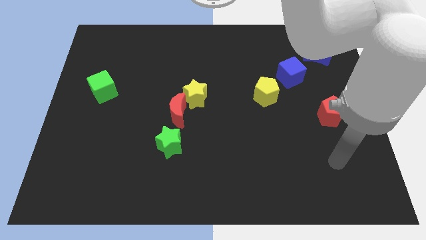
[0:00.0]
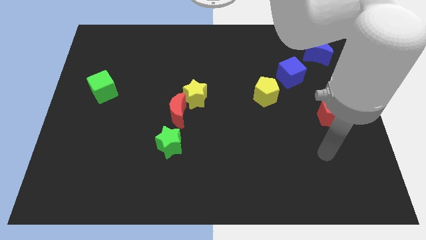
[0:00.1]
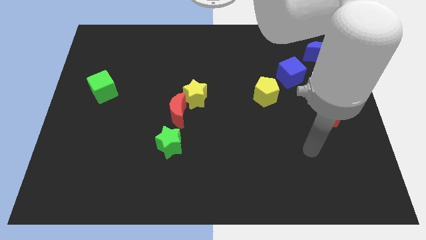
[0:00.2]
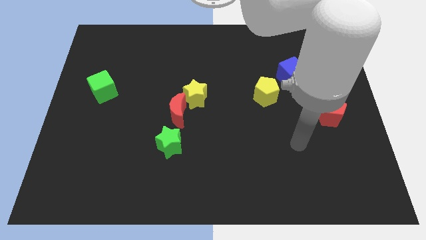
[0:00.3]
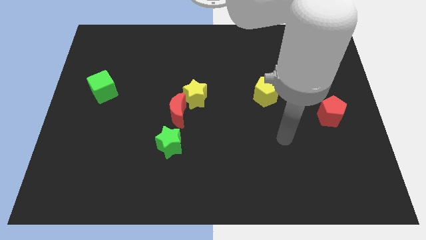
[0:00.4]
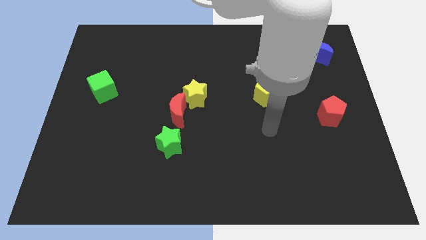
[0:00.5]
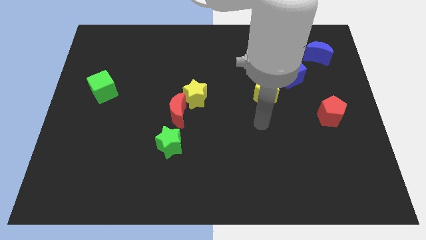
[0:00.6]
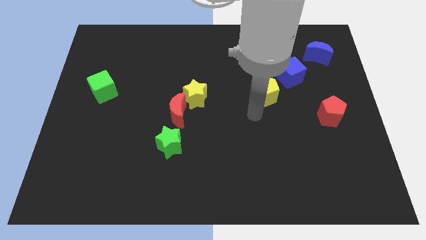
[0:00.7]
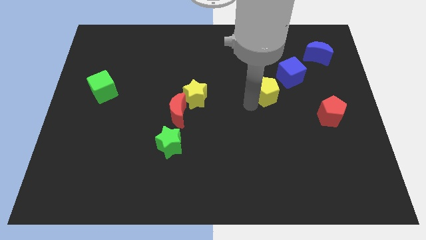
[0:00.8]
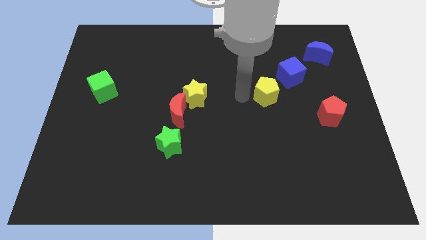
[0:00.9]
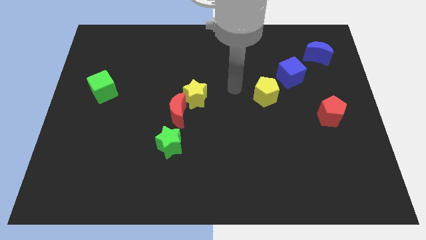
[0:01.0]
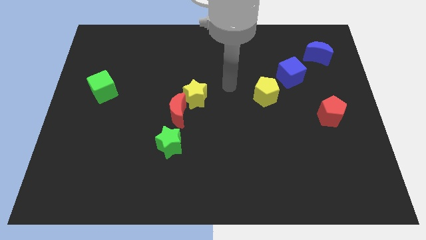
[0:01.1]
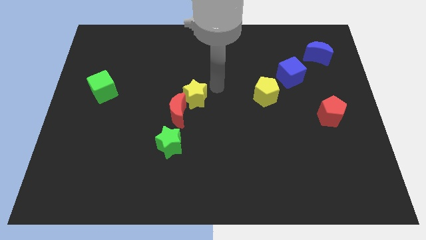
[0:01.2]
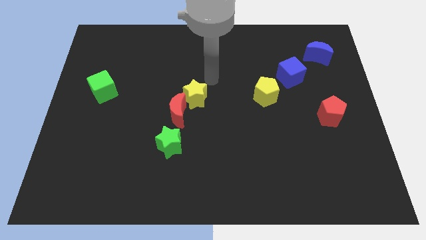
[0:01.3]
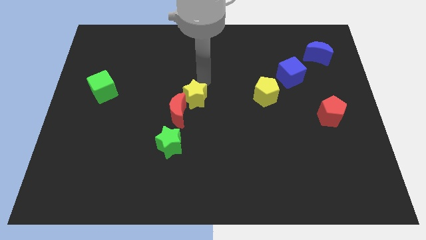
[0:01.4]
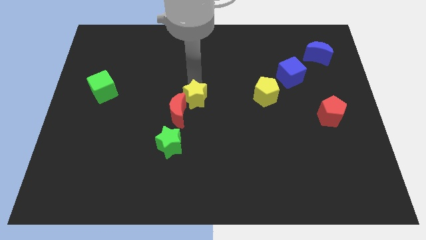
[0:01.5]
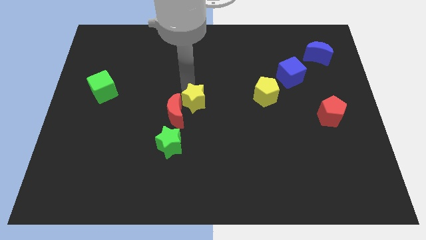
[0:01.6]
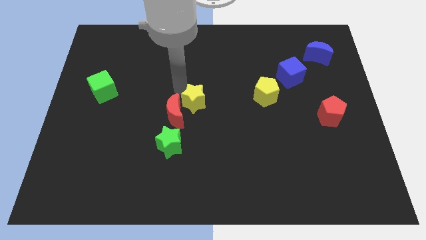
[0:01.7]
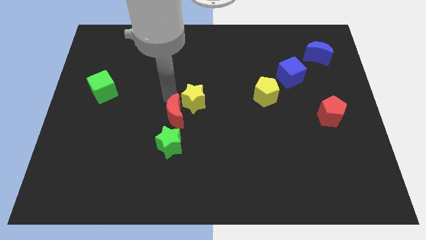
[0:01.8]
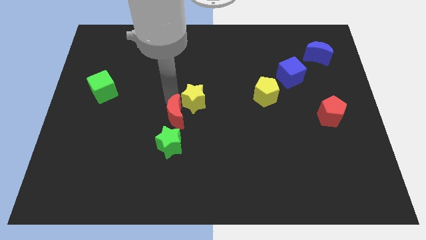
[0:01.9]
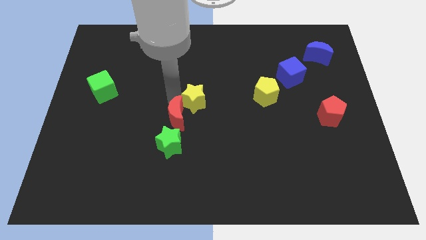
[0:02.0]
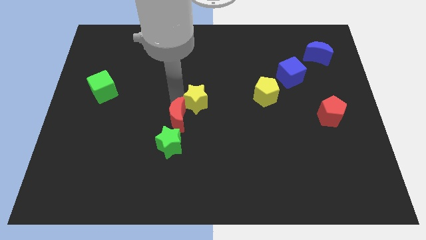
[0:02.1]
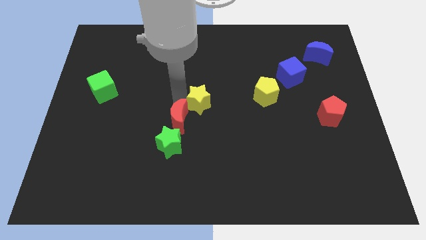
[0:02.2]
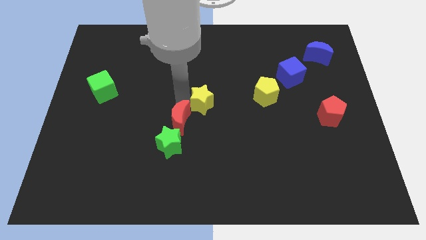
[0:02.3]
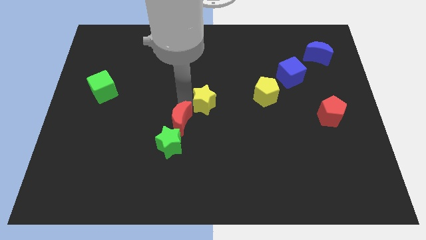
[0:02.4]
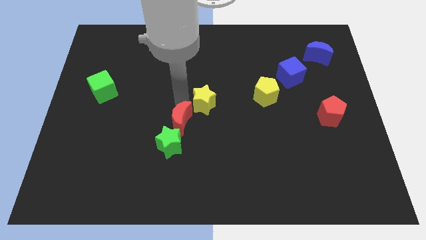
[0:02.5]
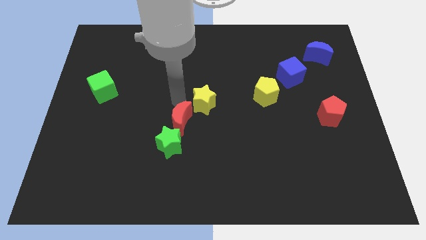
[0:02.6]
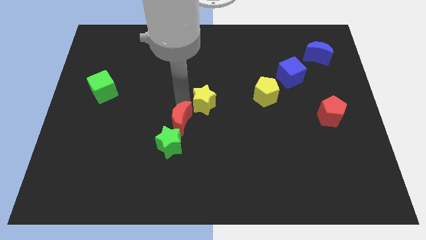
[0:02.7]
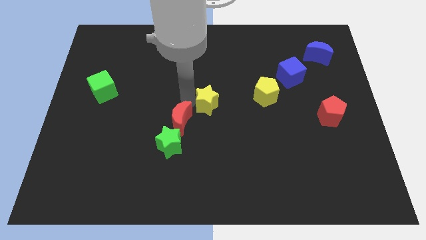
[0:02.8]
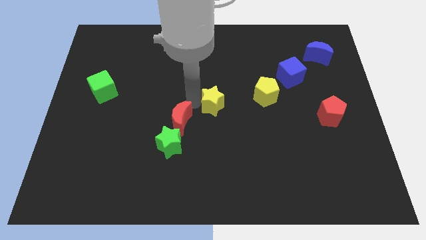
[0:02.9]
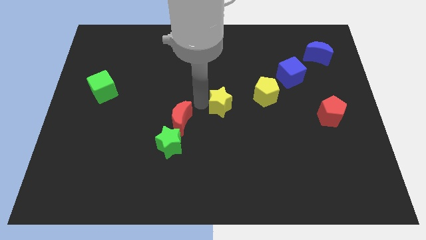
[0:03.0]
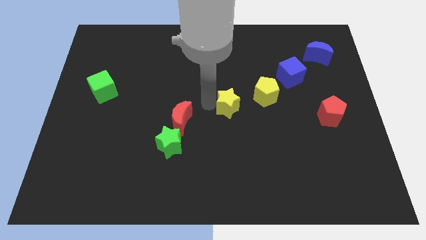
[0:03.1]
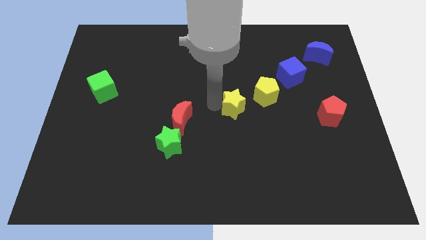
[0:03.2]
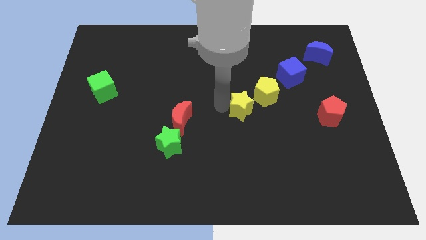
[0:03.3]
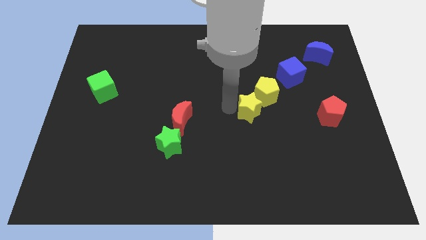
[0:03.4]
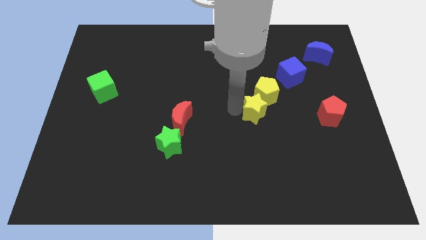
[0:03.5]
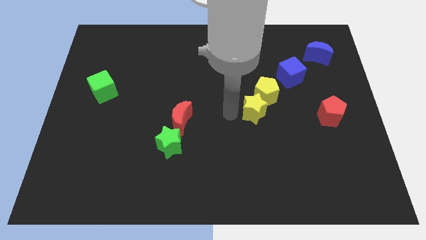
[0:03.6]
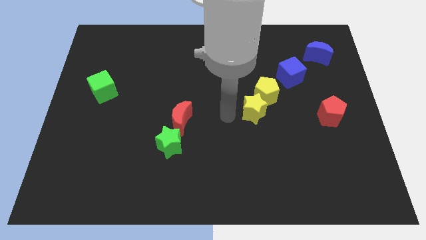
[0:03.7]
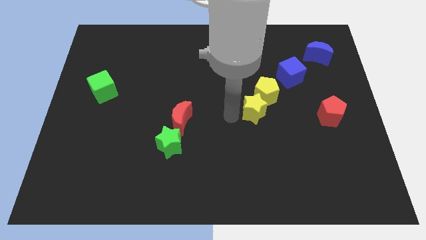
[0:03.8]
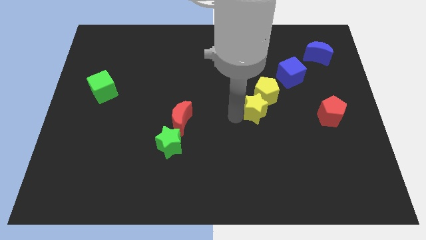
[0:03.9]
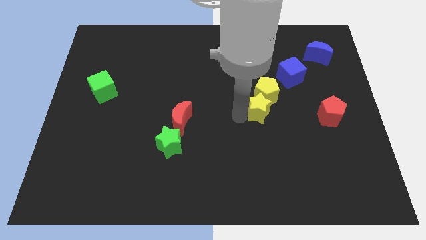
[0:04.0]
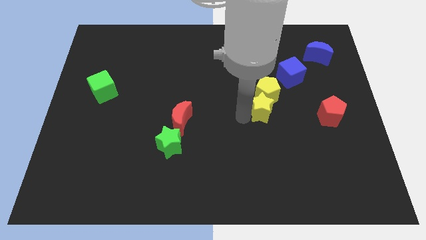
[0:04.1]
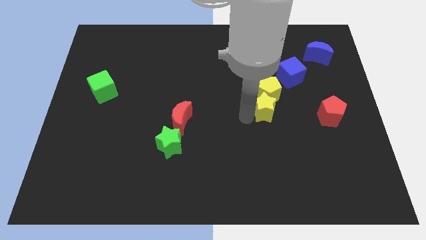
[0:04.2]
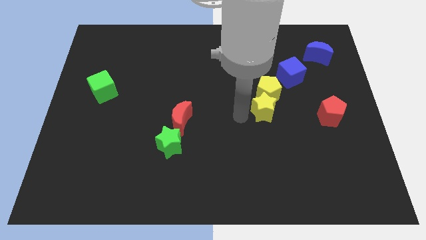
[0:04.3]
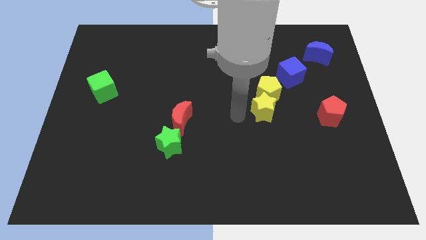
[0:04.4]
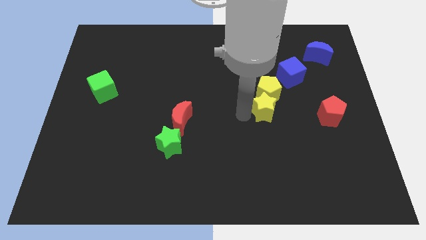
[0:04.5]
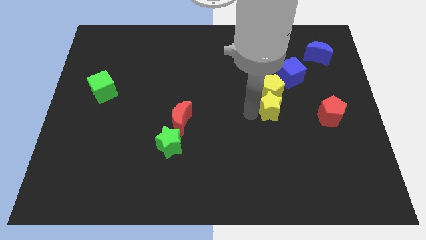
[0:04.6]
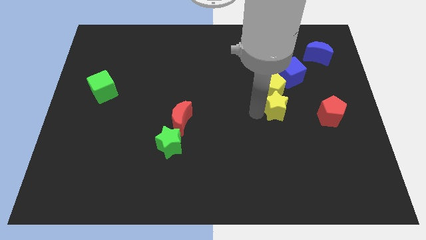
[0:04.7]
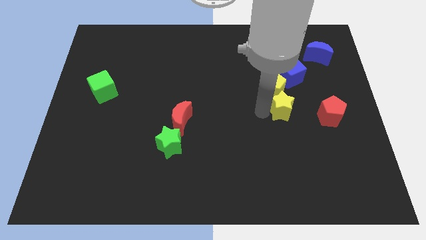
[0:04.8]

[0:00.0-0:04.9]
push the yellow star right

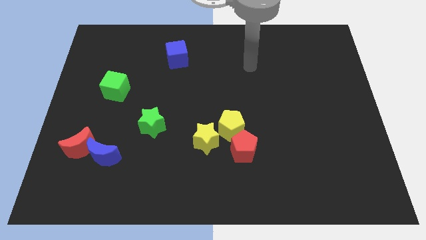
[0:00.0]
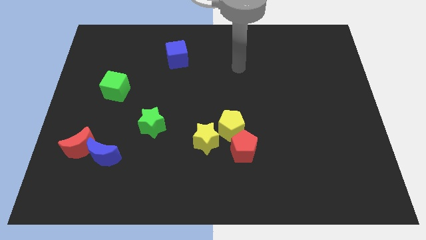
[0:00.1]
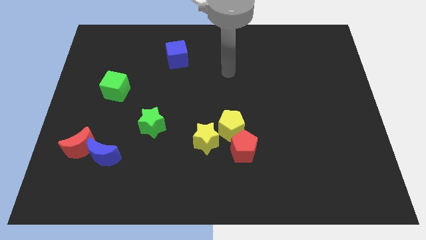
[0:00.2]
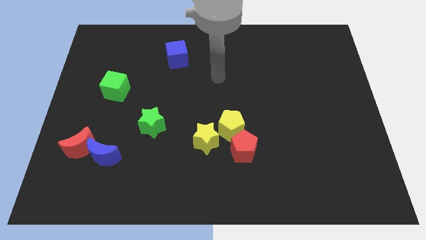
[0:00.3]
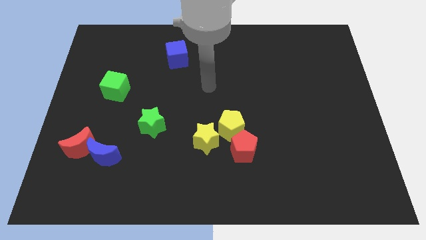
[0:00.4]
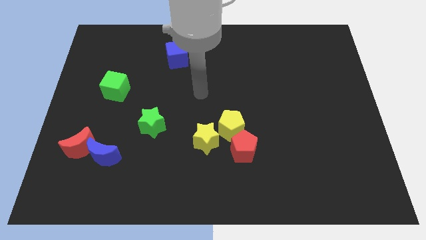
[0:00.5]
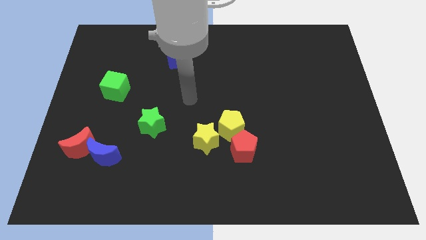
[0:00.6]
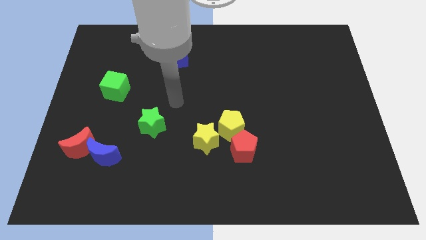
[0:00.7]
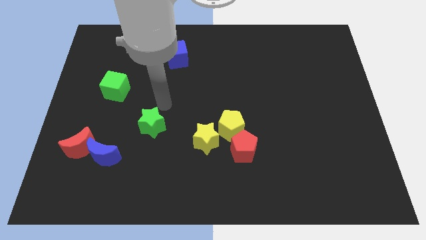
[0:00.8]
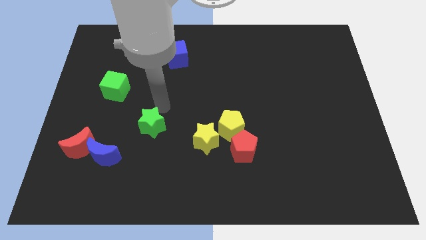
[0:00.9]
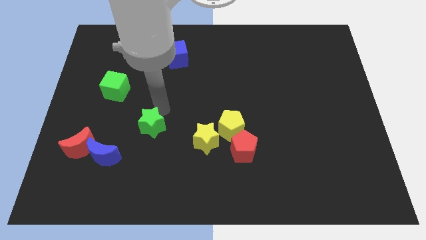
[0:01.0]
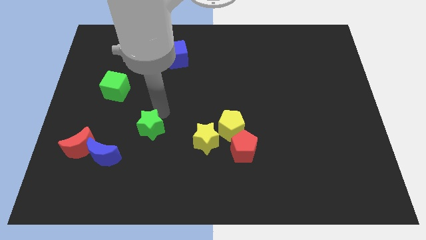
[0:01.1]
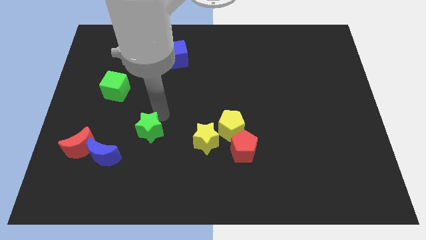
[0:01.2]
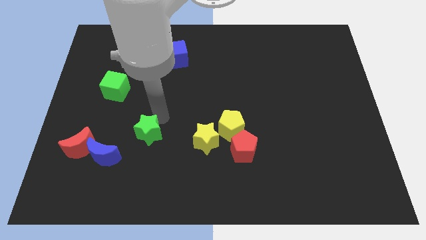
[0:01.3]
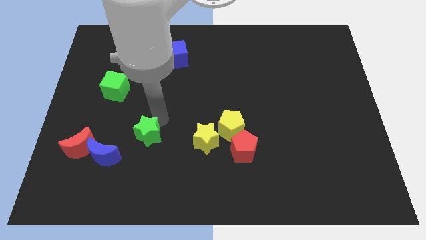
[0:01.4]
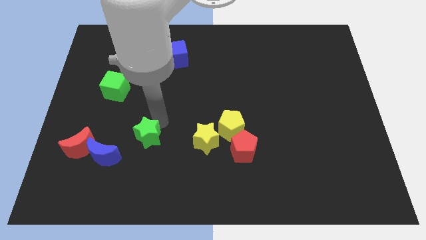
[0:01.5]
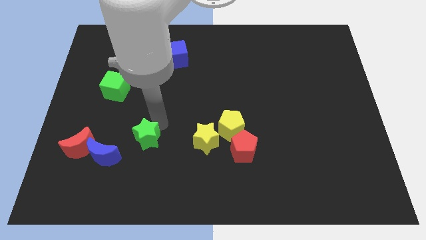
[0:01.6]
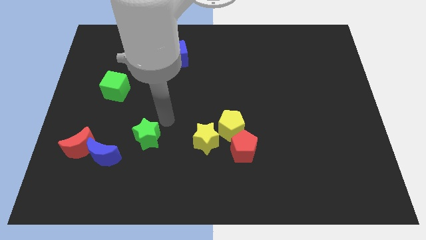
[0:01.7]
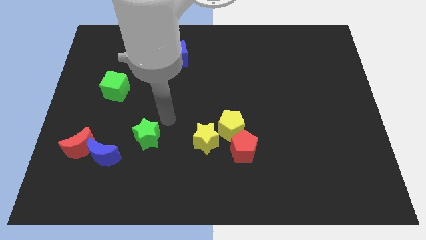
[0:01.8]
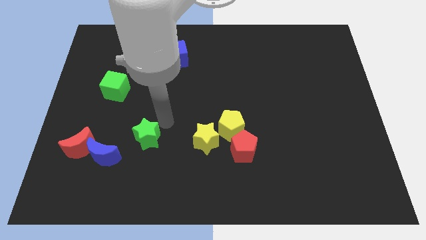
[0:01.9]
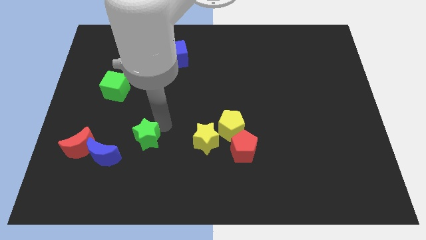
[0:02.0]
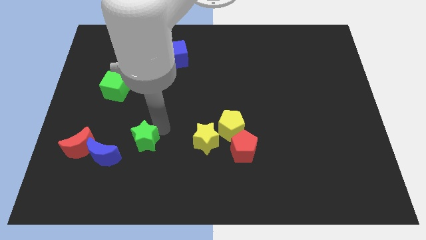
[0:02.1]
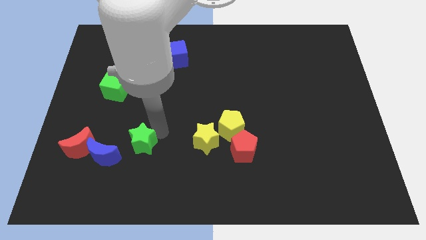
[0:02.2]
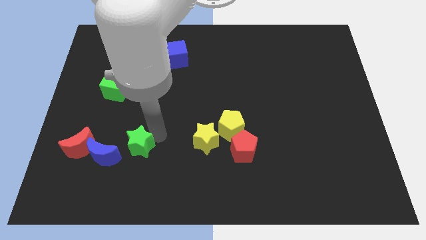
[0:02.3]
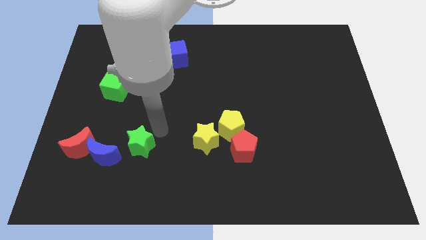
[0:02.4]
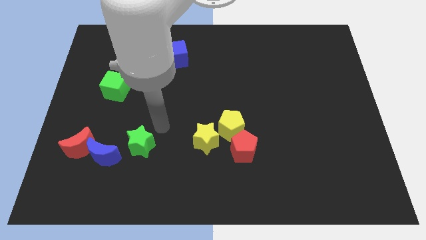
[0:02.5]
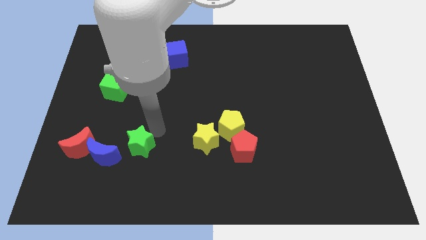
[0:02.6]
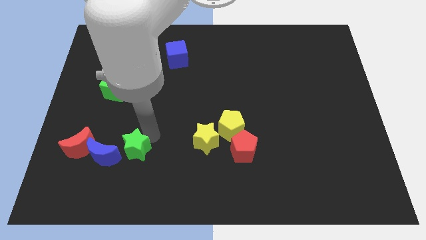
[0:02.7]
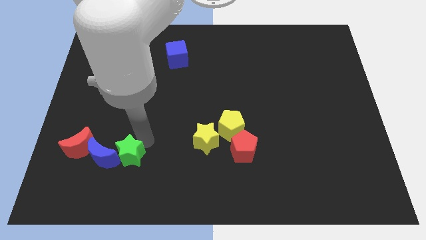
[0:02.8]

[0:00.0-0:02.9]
slide the green star downwards and to the left a little

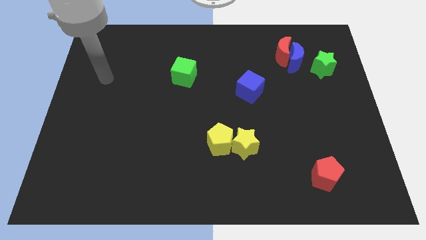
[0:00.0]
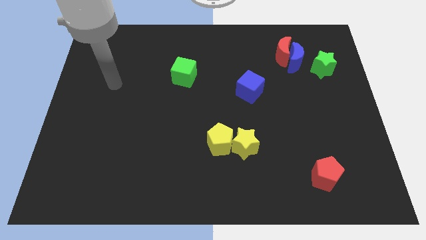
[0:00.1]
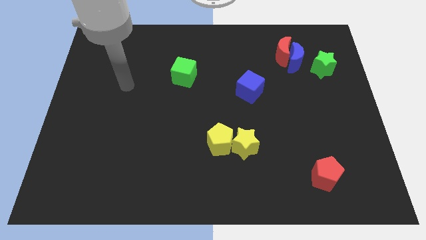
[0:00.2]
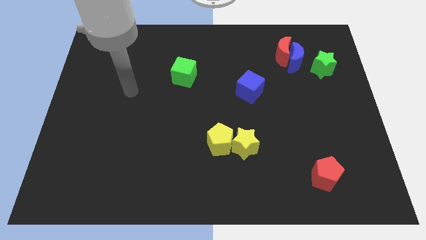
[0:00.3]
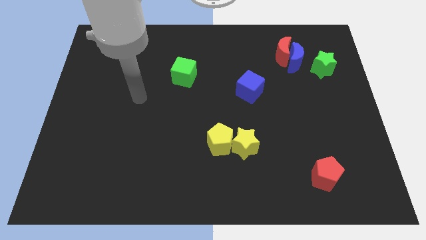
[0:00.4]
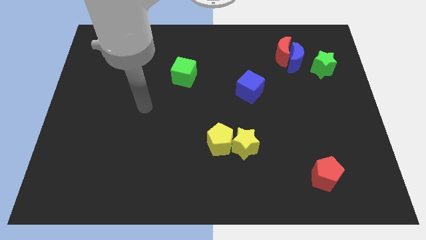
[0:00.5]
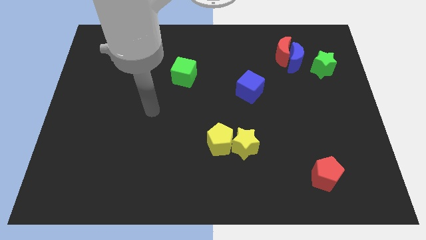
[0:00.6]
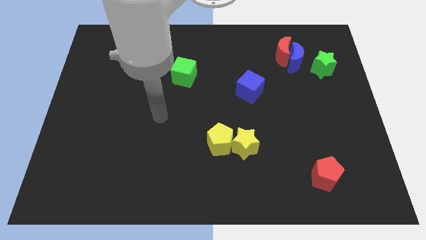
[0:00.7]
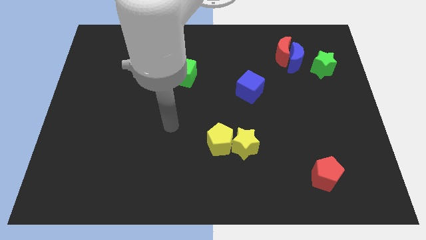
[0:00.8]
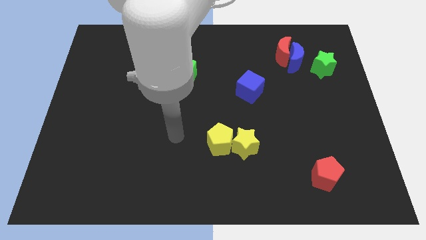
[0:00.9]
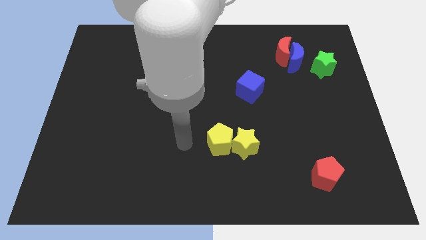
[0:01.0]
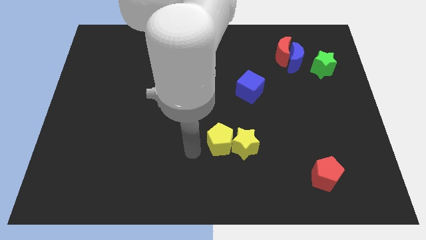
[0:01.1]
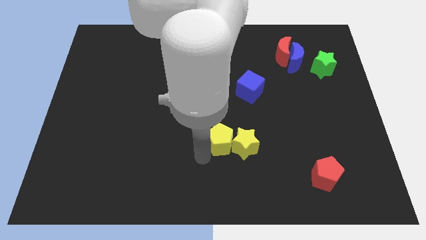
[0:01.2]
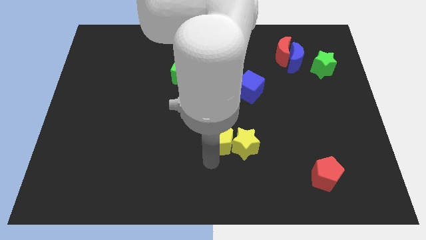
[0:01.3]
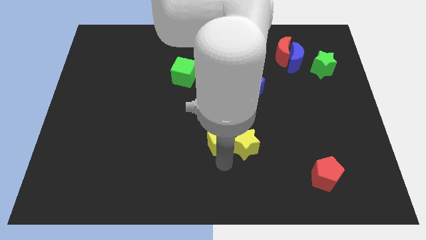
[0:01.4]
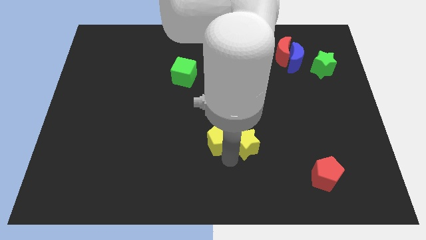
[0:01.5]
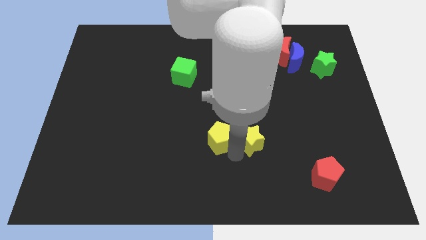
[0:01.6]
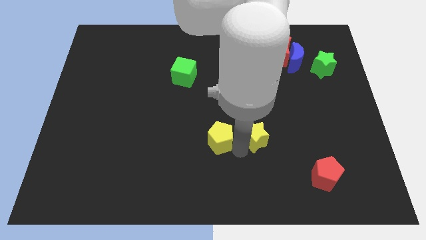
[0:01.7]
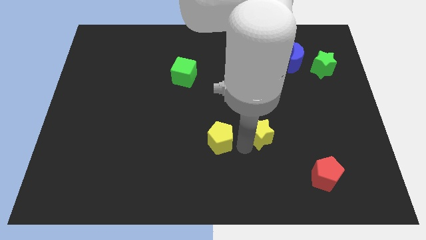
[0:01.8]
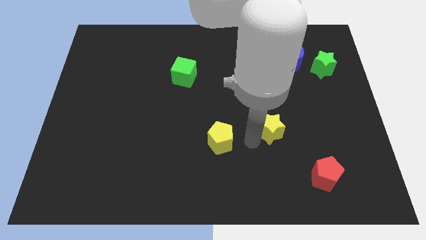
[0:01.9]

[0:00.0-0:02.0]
push the yellow star diagonally up and to the right somewhat
